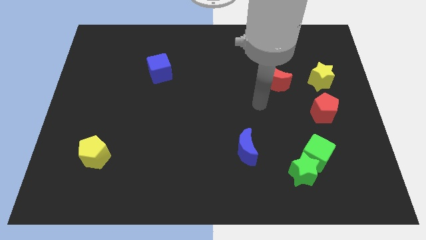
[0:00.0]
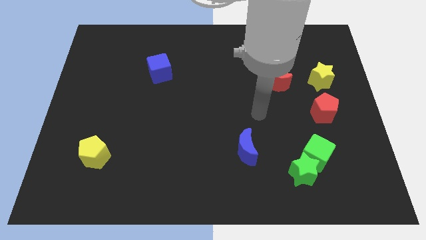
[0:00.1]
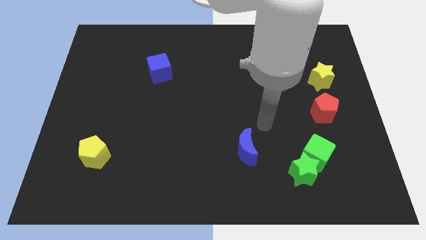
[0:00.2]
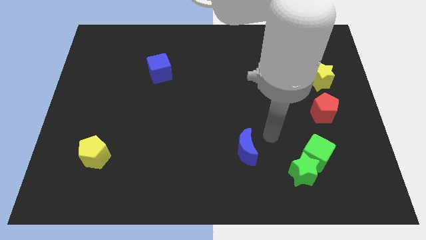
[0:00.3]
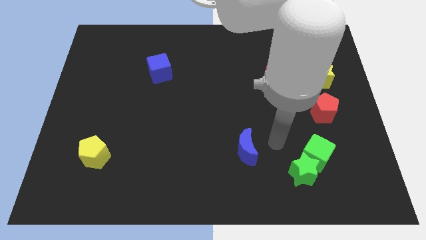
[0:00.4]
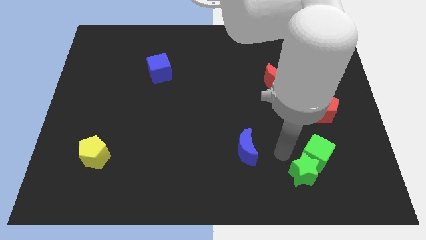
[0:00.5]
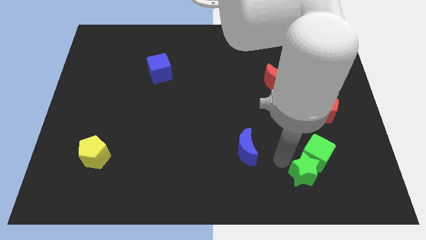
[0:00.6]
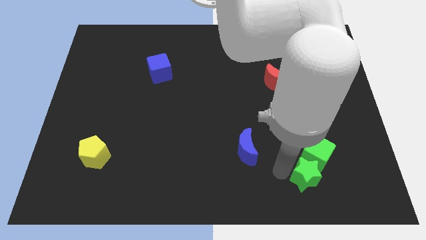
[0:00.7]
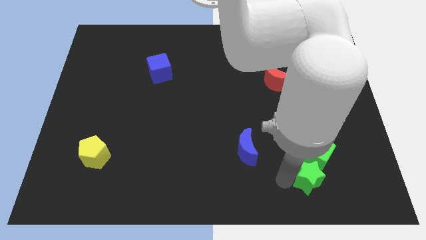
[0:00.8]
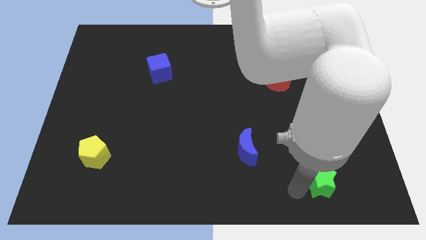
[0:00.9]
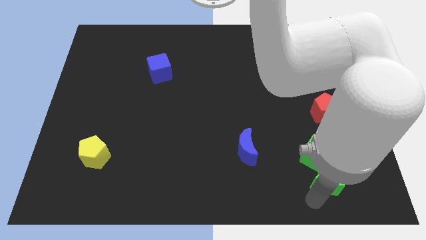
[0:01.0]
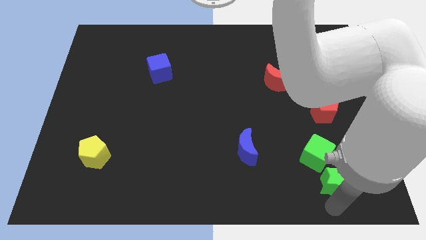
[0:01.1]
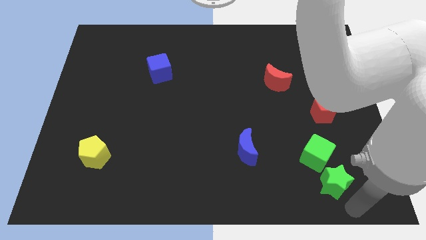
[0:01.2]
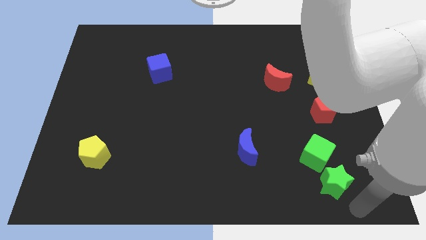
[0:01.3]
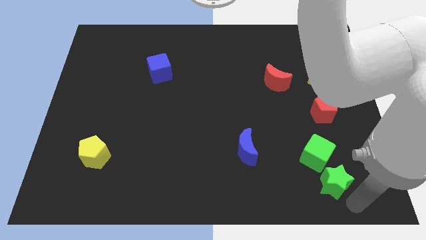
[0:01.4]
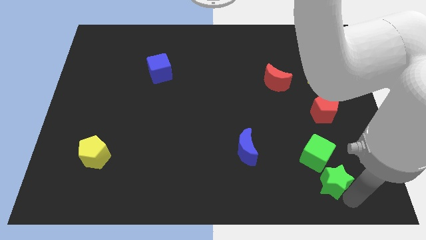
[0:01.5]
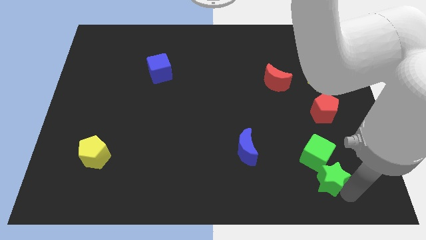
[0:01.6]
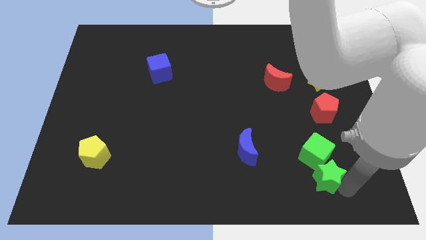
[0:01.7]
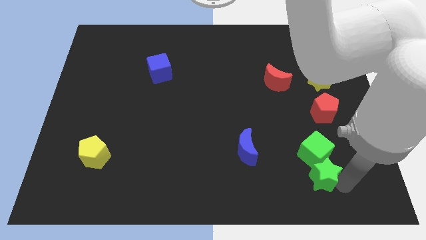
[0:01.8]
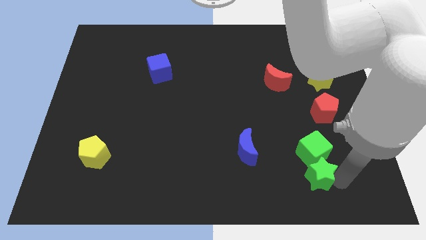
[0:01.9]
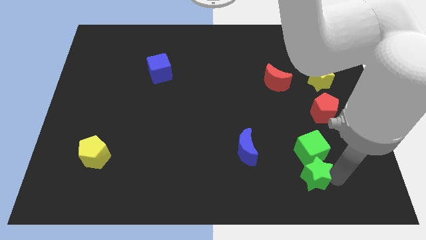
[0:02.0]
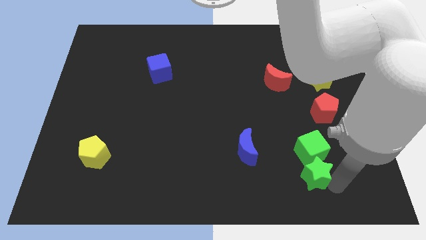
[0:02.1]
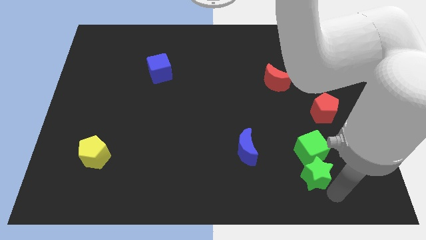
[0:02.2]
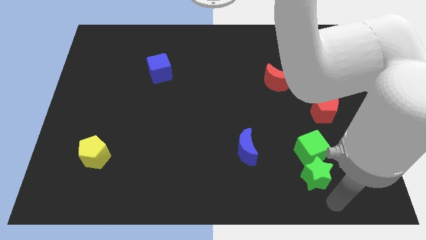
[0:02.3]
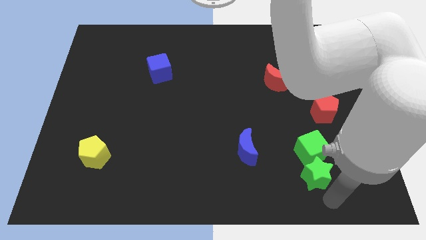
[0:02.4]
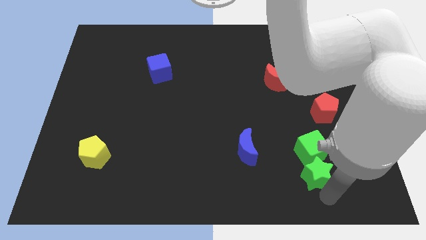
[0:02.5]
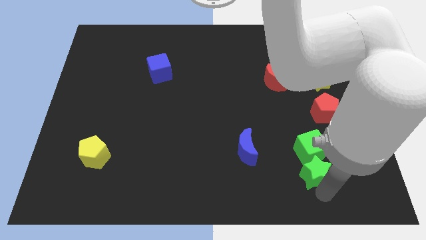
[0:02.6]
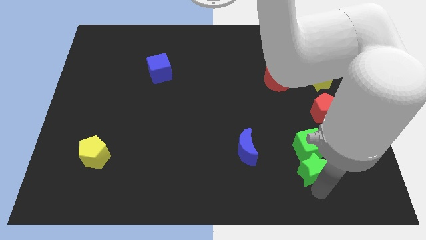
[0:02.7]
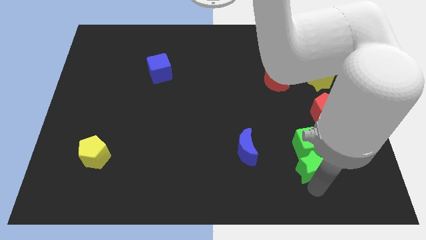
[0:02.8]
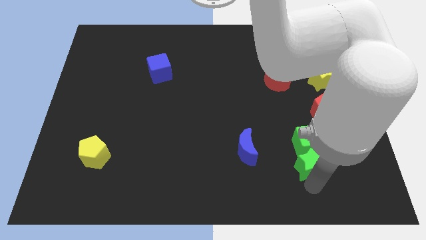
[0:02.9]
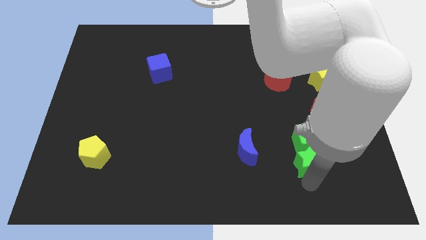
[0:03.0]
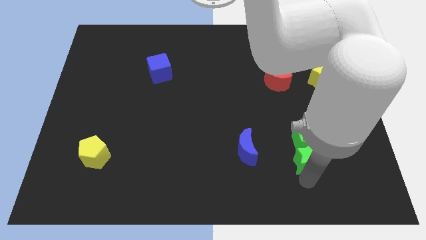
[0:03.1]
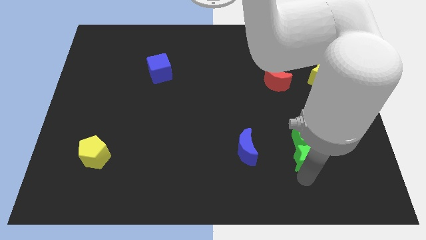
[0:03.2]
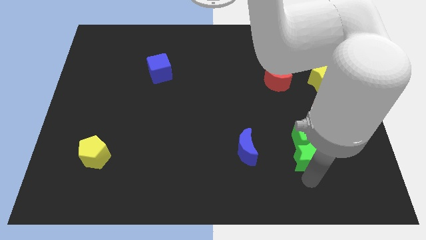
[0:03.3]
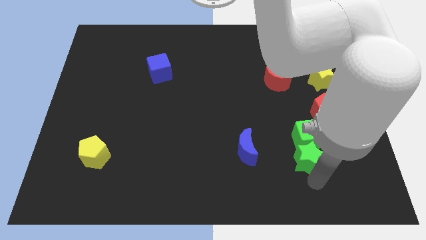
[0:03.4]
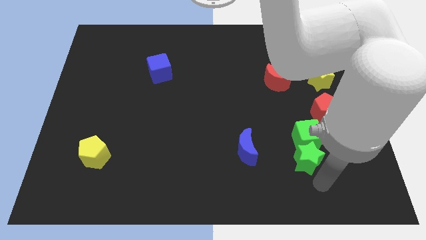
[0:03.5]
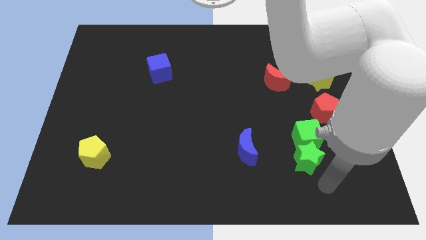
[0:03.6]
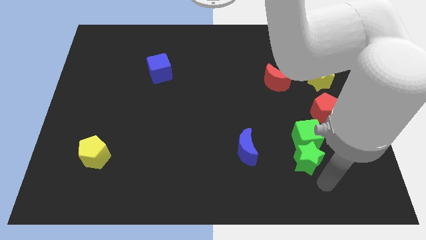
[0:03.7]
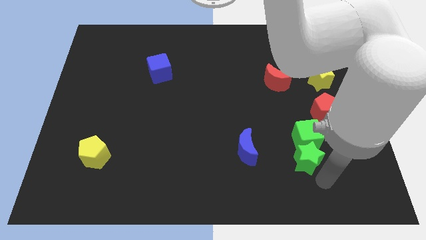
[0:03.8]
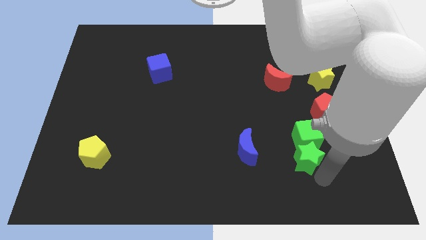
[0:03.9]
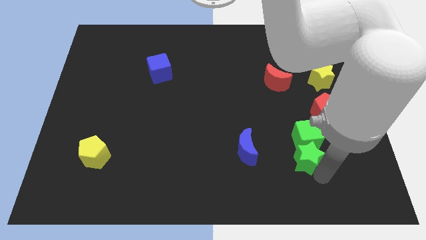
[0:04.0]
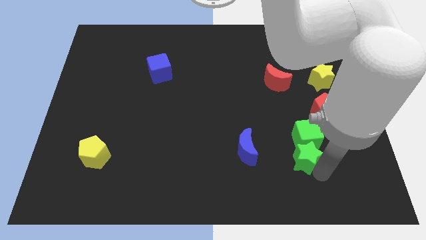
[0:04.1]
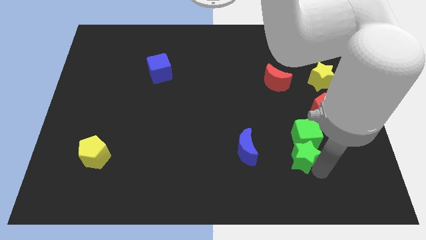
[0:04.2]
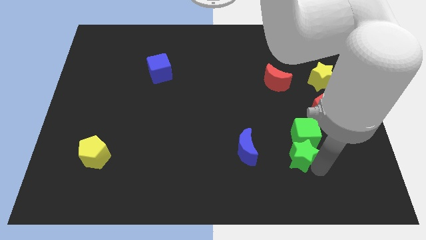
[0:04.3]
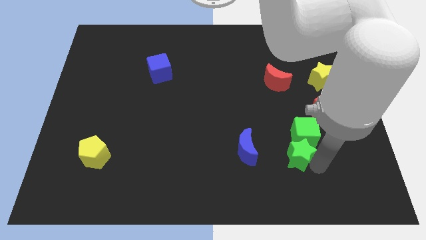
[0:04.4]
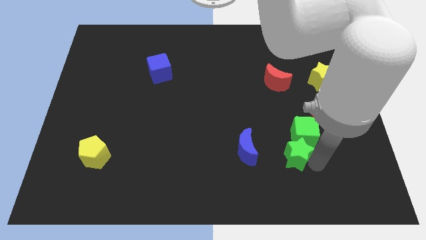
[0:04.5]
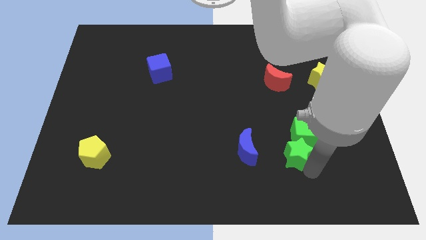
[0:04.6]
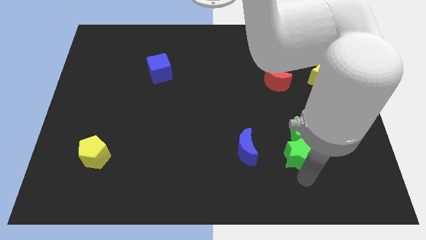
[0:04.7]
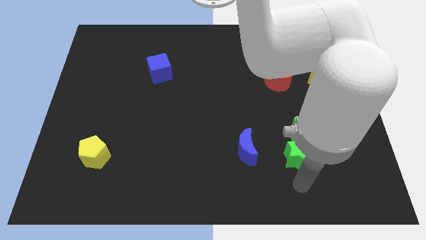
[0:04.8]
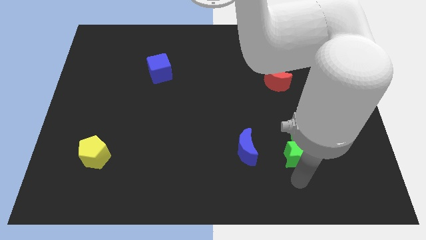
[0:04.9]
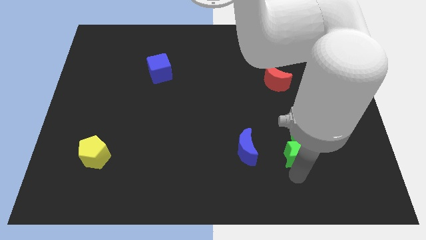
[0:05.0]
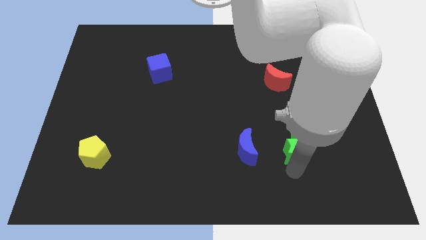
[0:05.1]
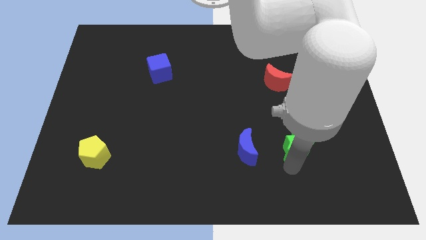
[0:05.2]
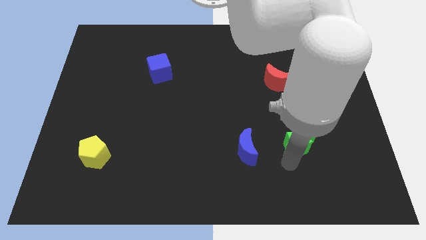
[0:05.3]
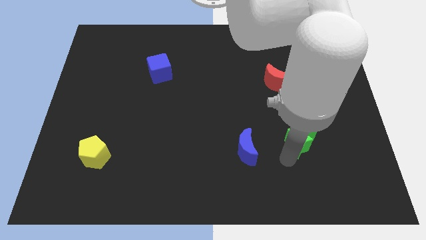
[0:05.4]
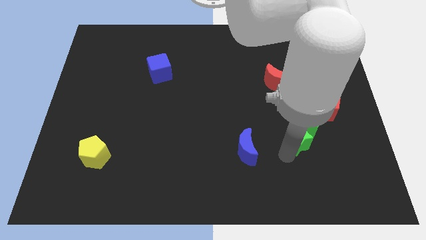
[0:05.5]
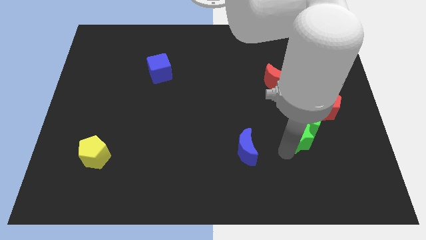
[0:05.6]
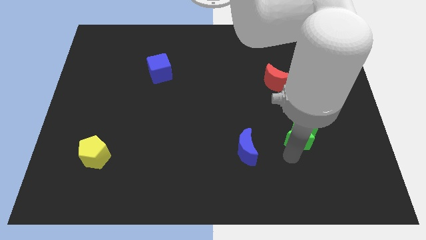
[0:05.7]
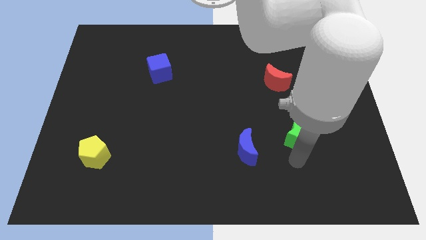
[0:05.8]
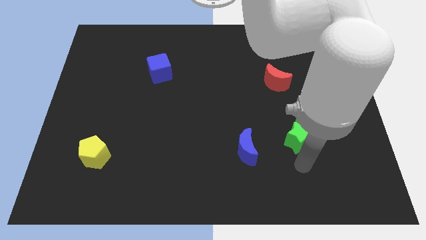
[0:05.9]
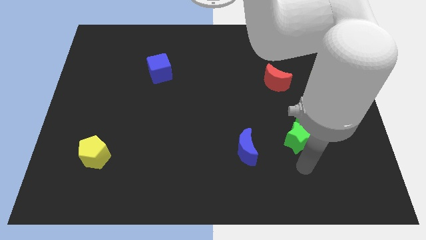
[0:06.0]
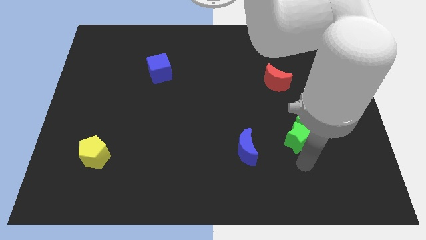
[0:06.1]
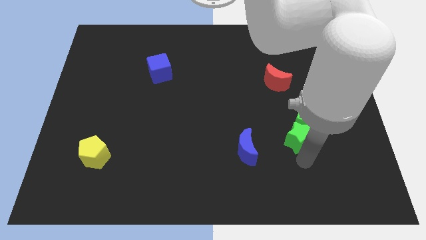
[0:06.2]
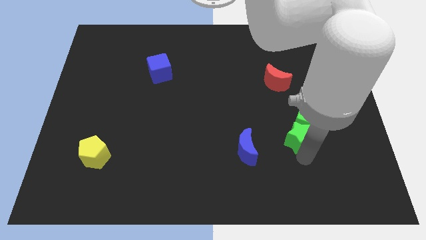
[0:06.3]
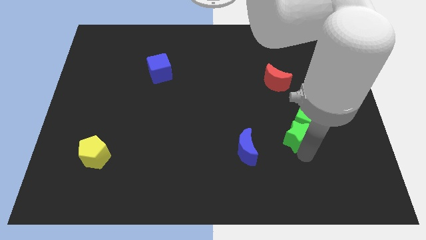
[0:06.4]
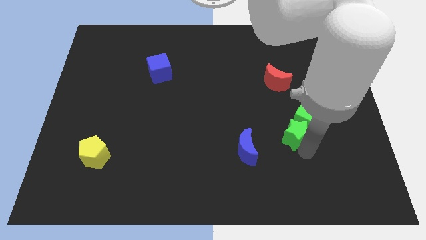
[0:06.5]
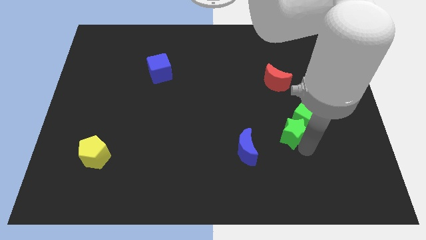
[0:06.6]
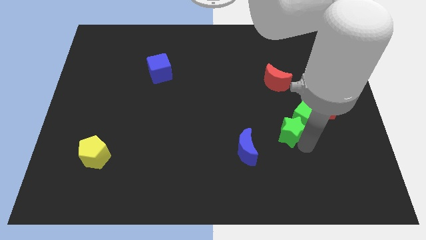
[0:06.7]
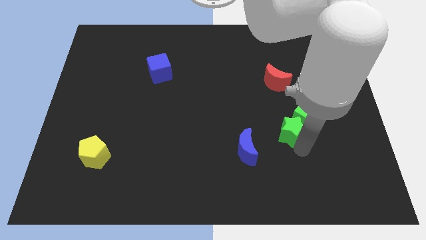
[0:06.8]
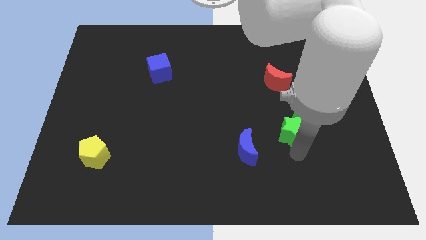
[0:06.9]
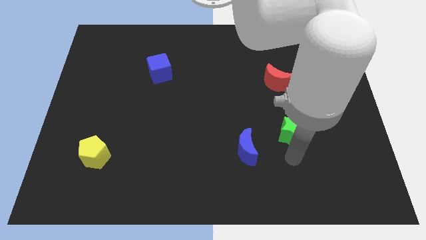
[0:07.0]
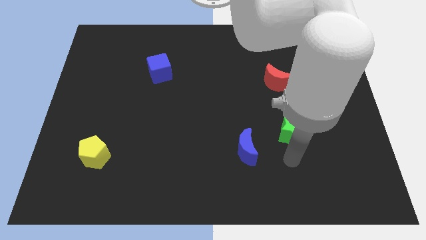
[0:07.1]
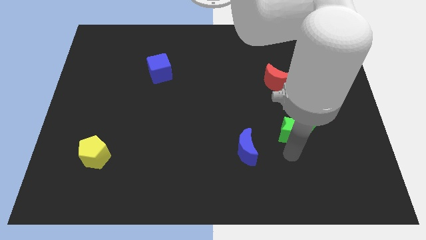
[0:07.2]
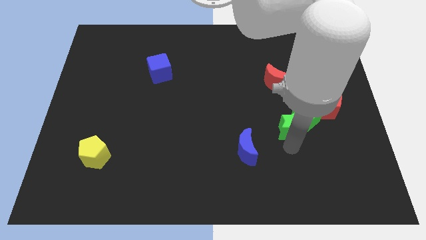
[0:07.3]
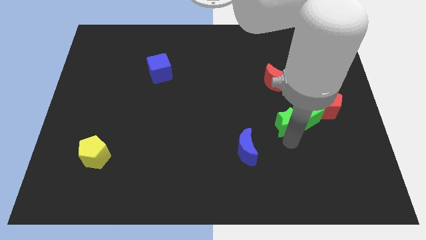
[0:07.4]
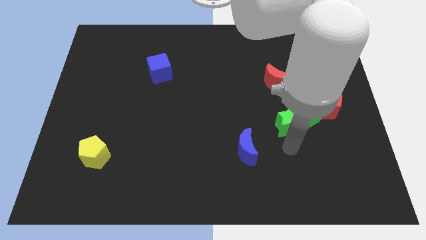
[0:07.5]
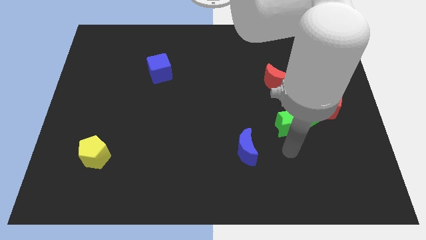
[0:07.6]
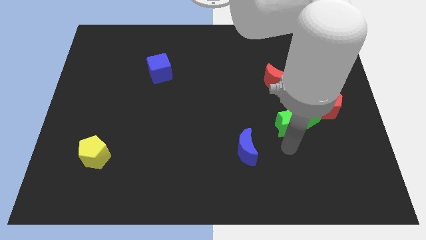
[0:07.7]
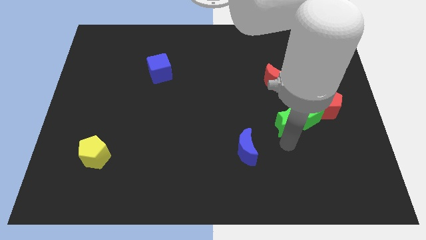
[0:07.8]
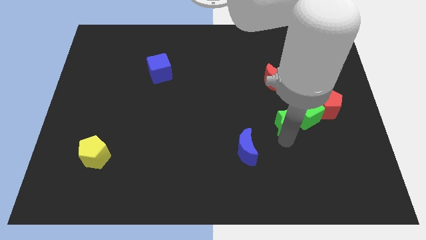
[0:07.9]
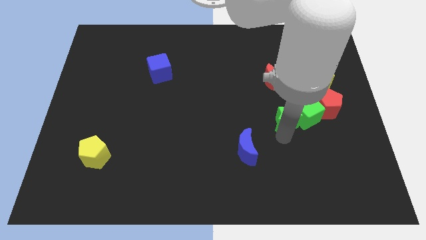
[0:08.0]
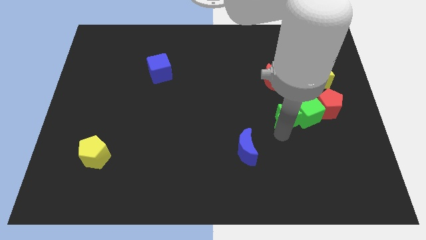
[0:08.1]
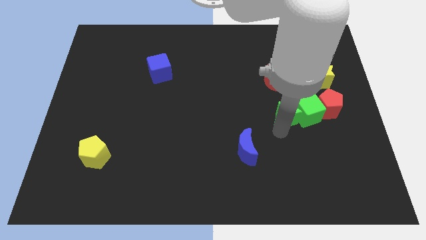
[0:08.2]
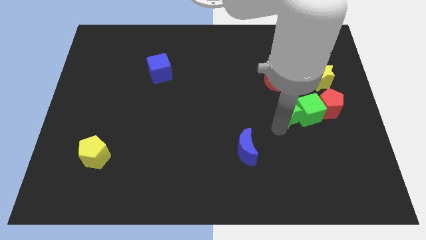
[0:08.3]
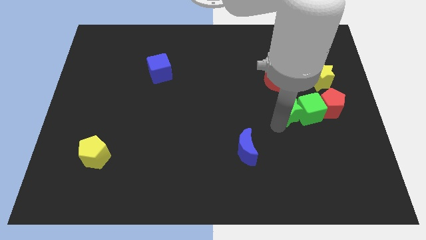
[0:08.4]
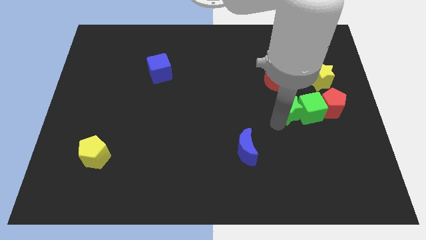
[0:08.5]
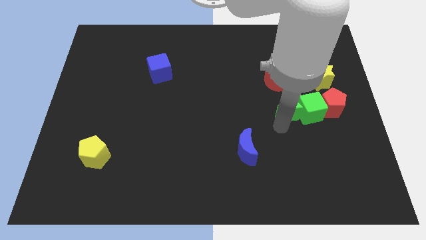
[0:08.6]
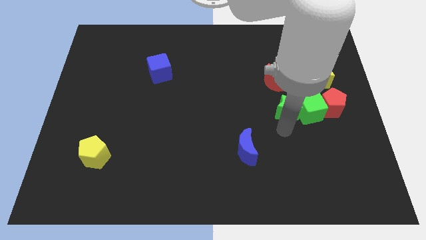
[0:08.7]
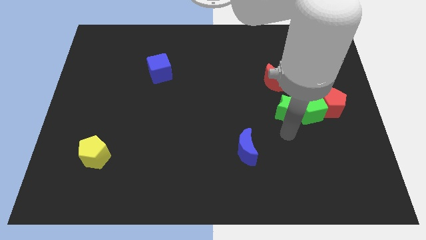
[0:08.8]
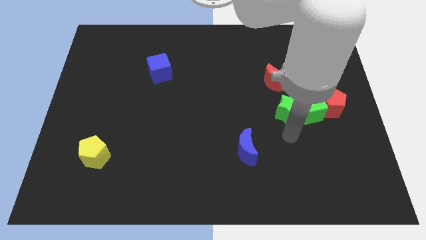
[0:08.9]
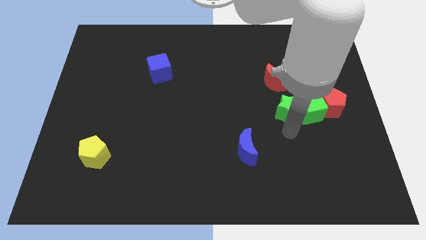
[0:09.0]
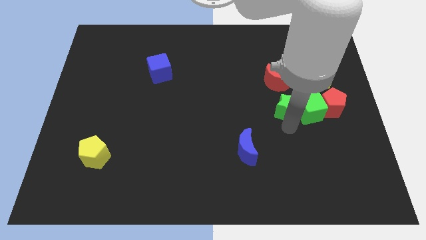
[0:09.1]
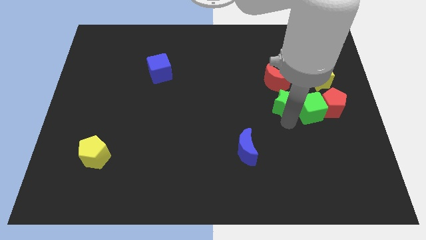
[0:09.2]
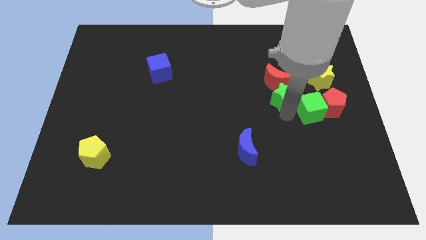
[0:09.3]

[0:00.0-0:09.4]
push the green star close to the red moon
